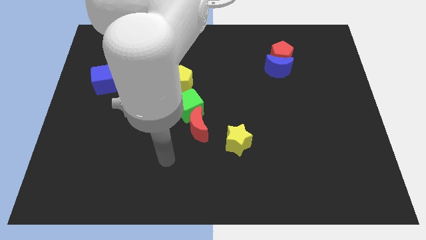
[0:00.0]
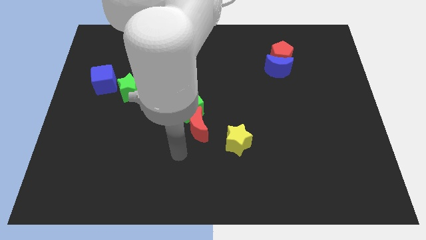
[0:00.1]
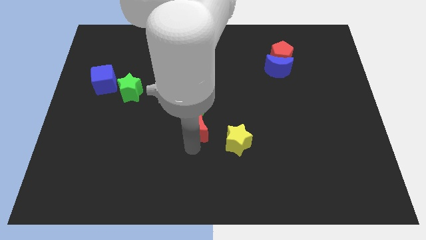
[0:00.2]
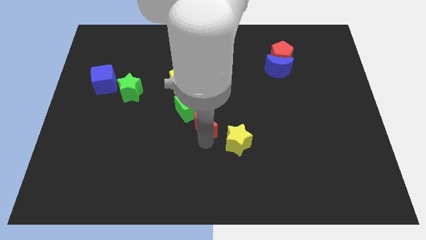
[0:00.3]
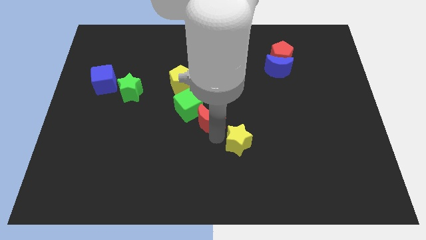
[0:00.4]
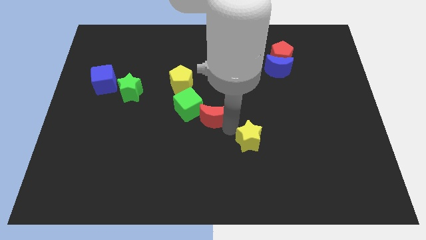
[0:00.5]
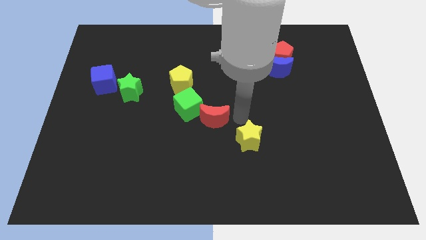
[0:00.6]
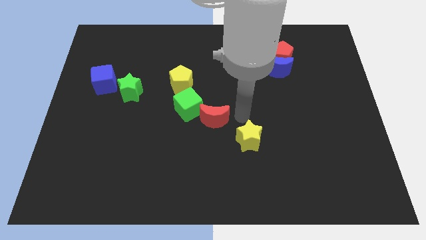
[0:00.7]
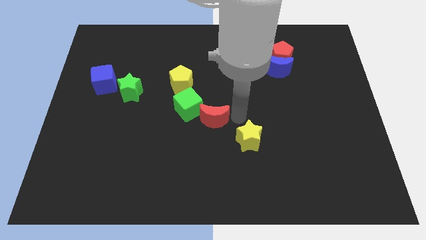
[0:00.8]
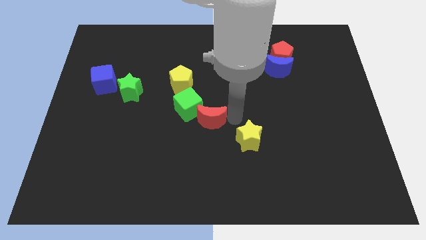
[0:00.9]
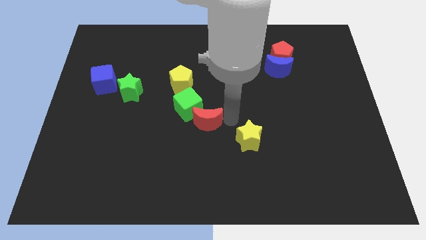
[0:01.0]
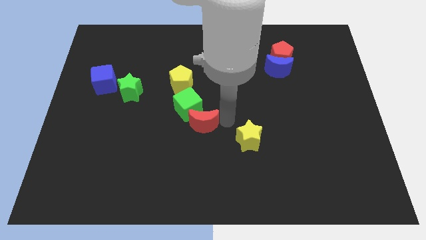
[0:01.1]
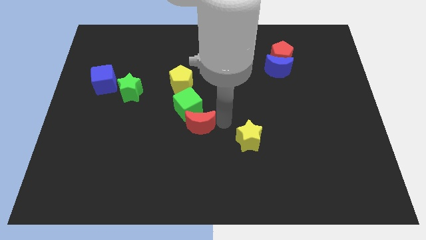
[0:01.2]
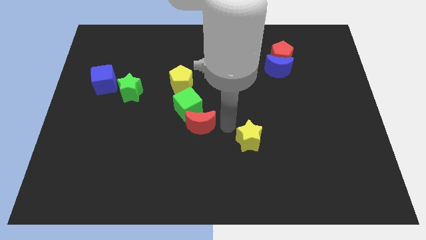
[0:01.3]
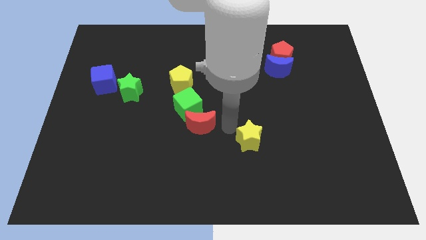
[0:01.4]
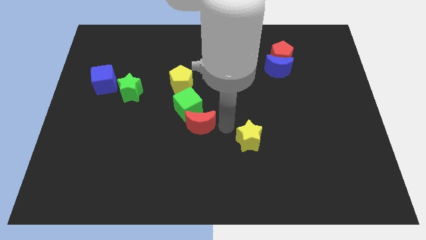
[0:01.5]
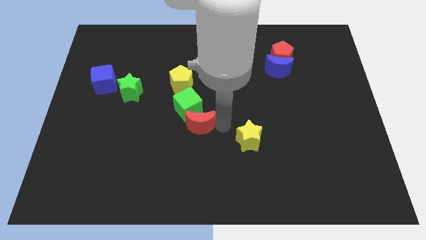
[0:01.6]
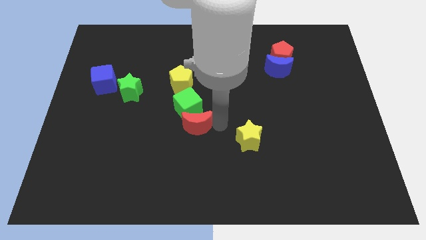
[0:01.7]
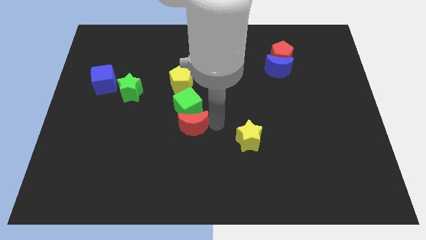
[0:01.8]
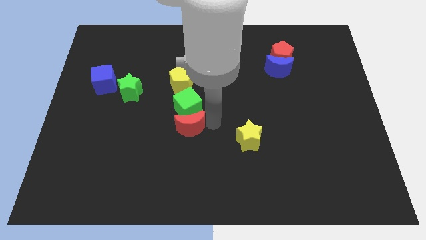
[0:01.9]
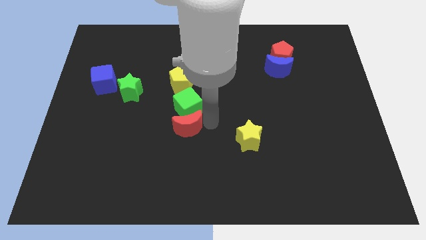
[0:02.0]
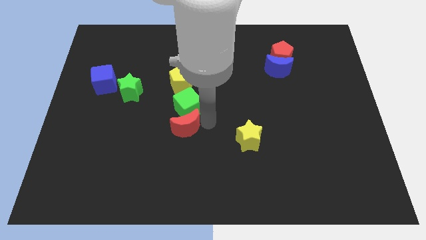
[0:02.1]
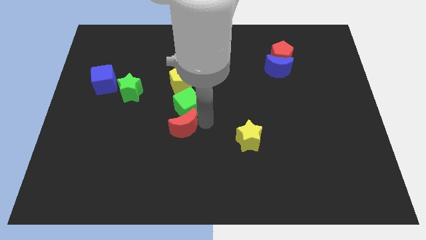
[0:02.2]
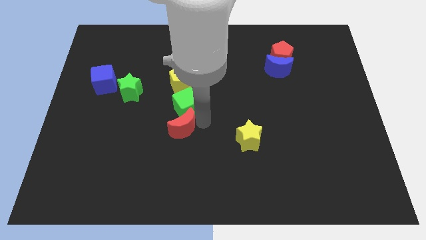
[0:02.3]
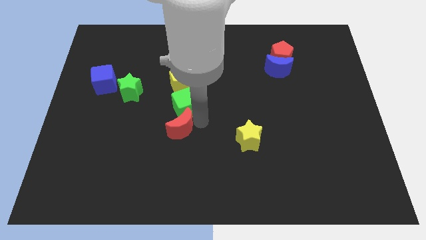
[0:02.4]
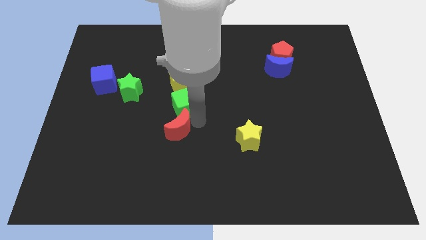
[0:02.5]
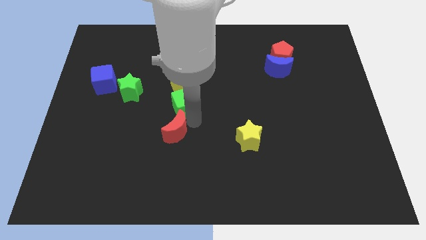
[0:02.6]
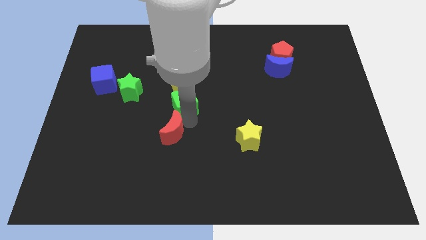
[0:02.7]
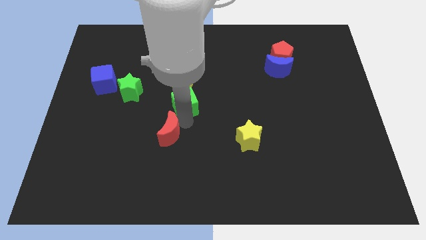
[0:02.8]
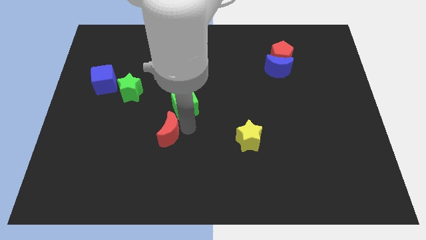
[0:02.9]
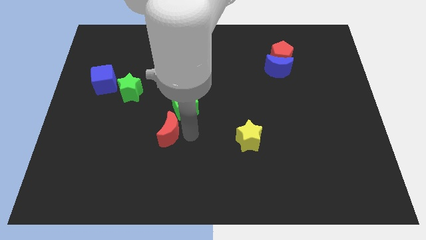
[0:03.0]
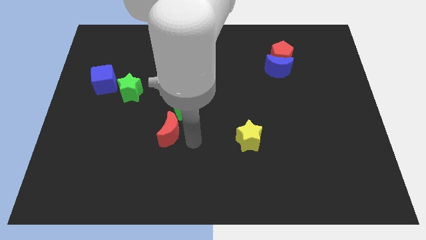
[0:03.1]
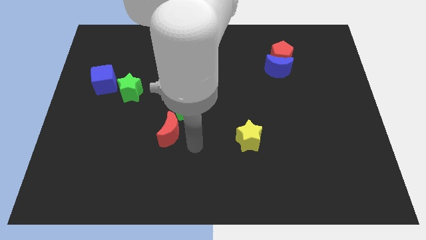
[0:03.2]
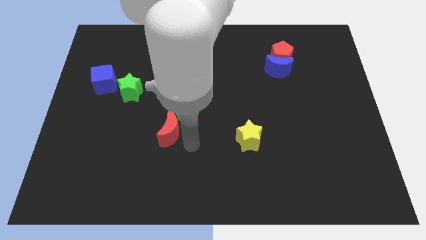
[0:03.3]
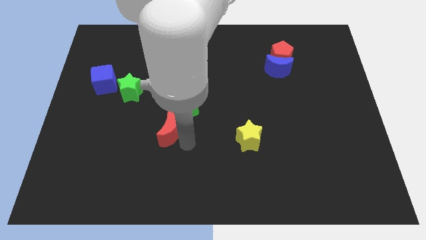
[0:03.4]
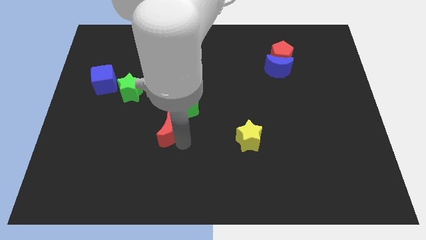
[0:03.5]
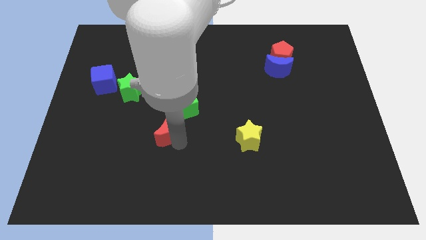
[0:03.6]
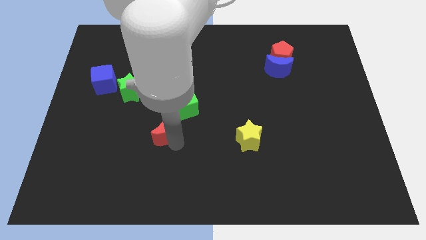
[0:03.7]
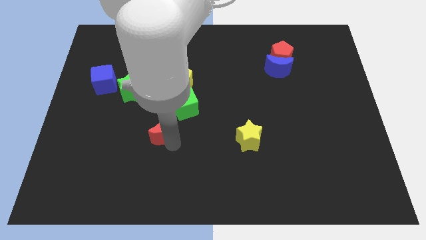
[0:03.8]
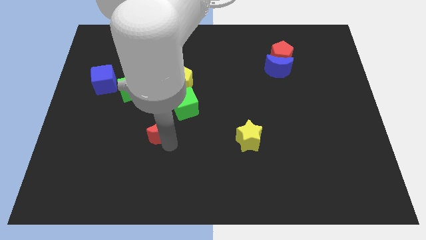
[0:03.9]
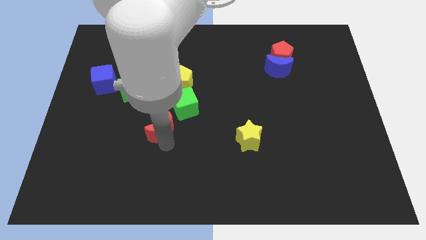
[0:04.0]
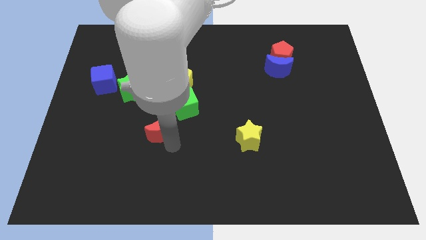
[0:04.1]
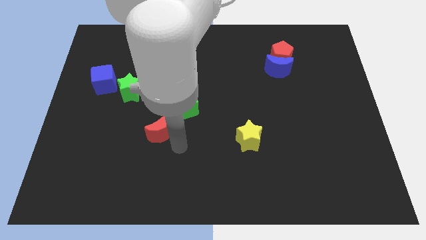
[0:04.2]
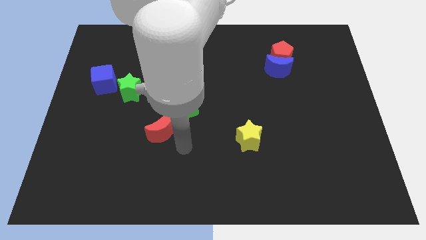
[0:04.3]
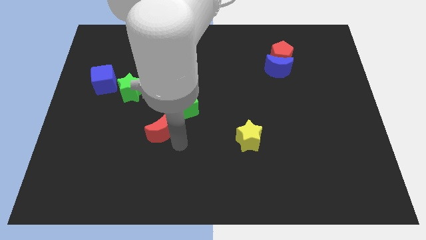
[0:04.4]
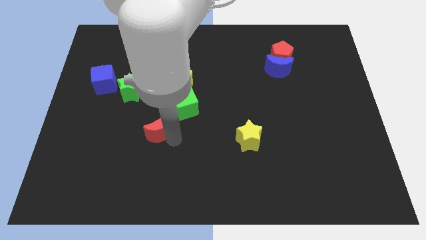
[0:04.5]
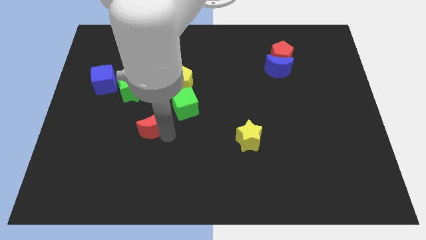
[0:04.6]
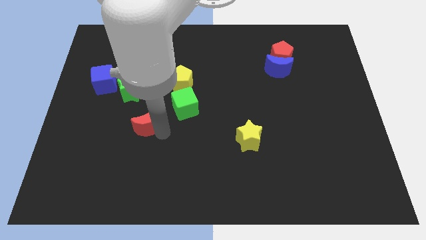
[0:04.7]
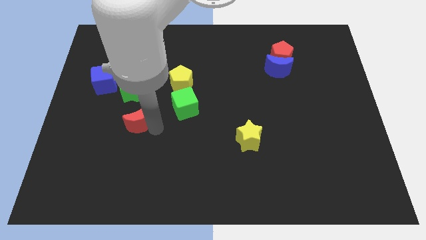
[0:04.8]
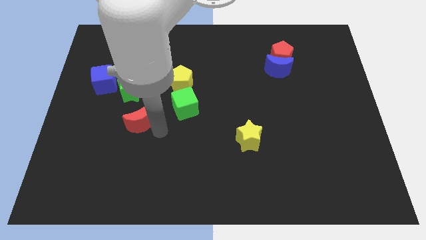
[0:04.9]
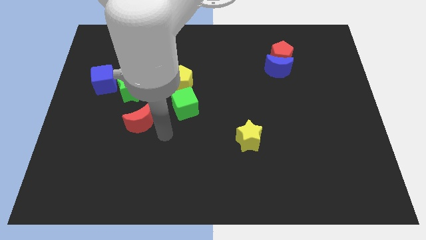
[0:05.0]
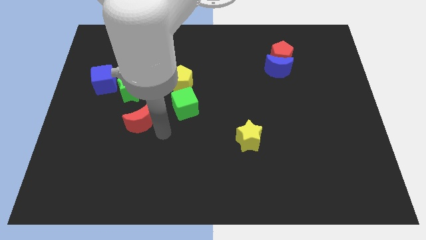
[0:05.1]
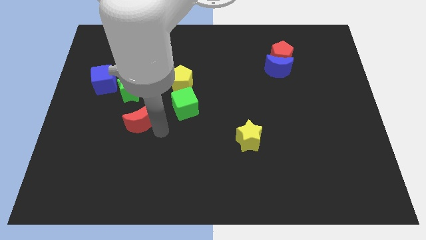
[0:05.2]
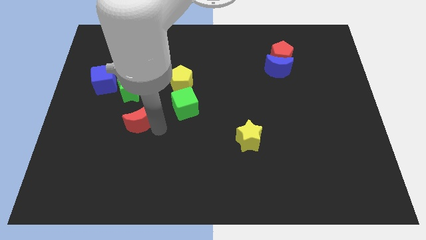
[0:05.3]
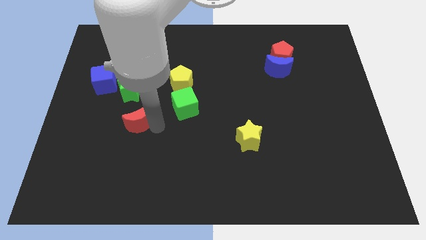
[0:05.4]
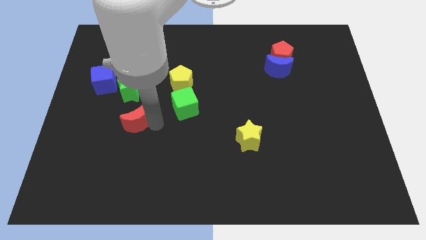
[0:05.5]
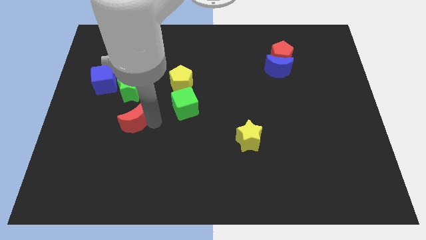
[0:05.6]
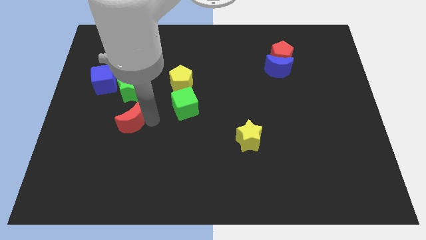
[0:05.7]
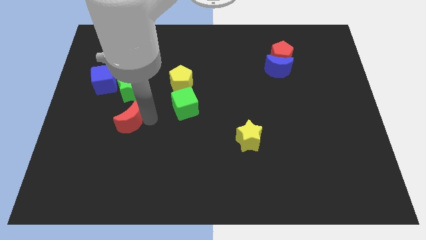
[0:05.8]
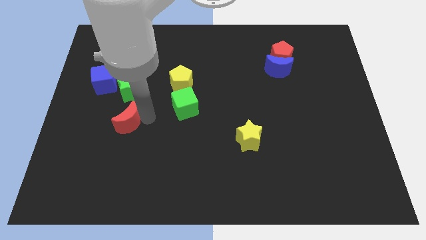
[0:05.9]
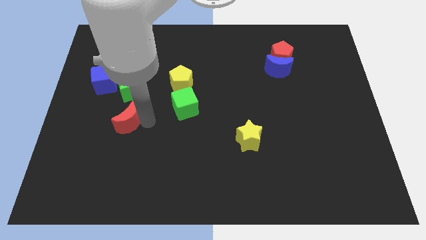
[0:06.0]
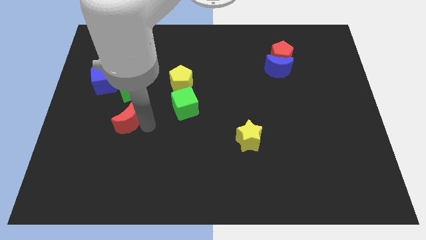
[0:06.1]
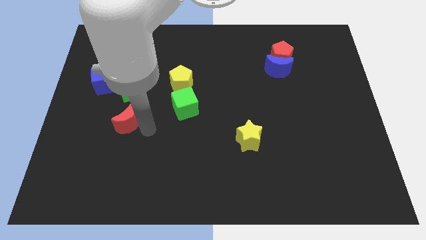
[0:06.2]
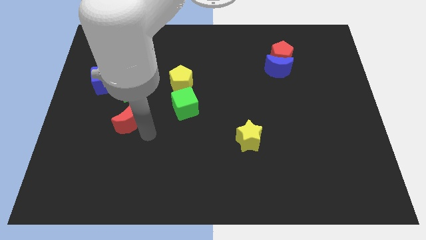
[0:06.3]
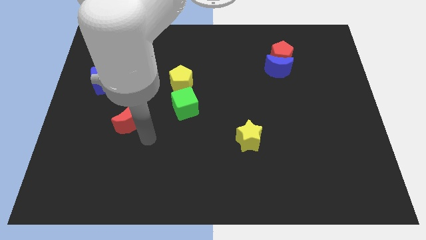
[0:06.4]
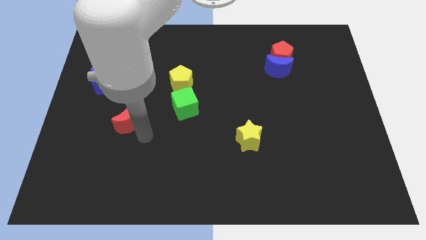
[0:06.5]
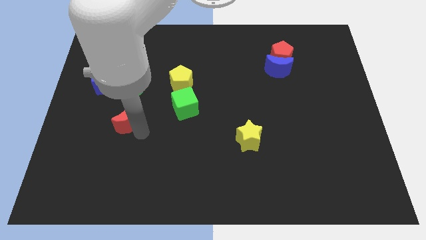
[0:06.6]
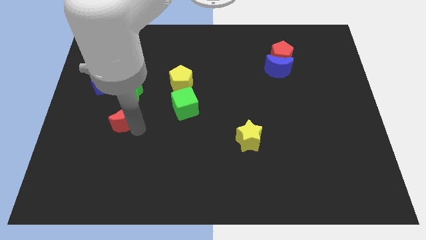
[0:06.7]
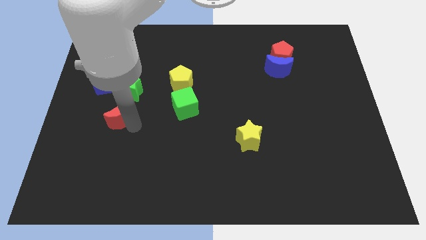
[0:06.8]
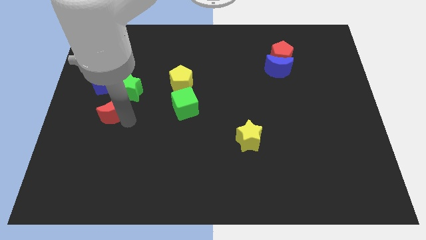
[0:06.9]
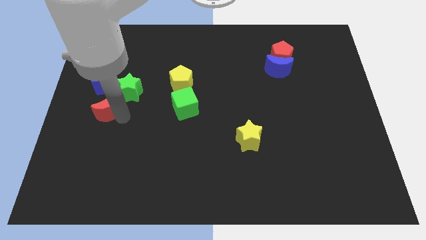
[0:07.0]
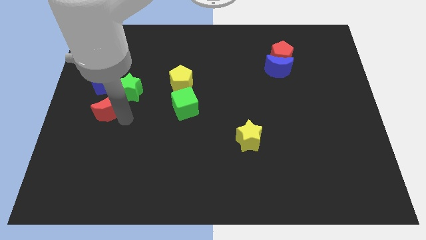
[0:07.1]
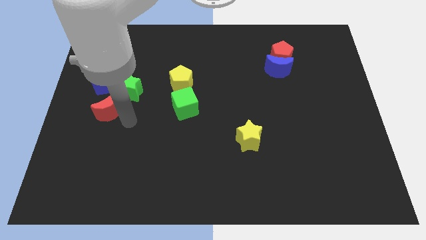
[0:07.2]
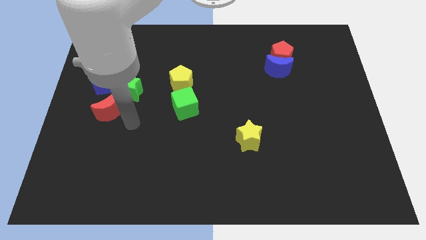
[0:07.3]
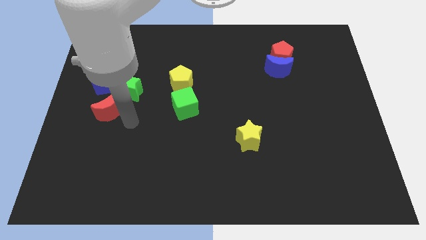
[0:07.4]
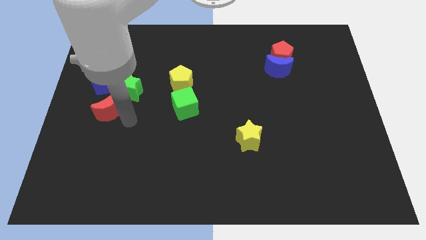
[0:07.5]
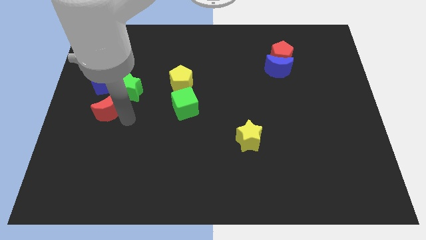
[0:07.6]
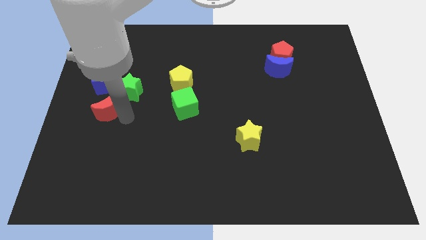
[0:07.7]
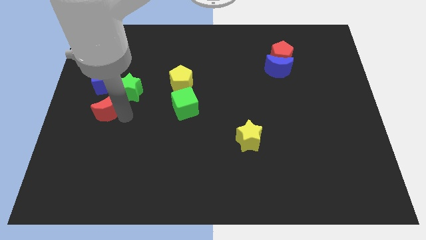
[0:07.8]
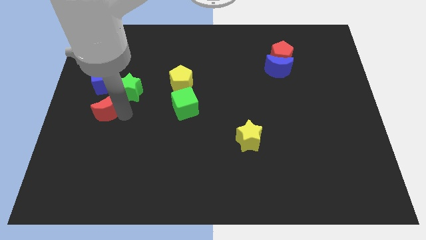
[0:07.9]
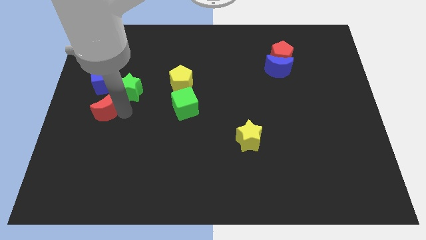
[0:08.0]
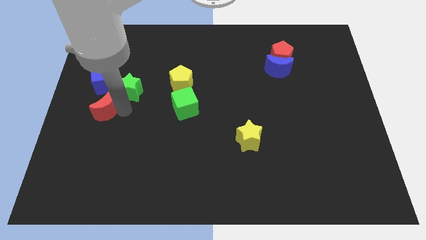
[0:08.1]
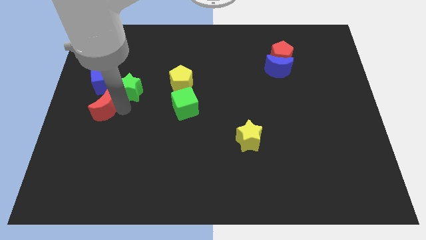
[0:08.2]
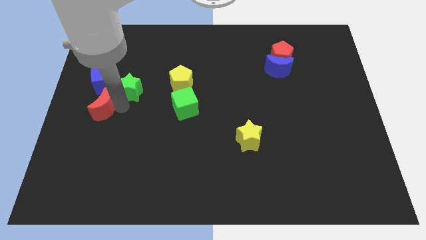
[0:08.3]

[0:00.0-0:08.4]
move the red moon to the left side
